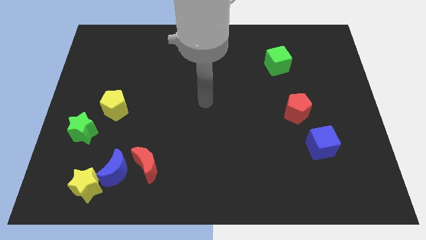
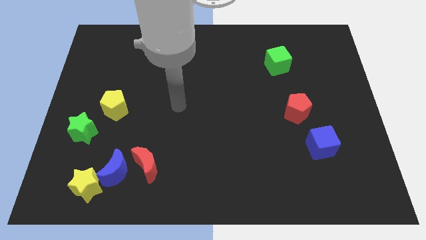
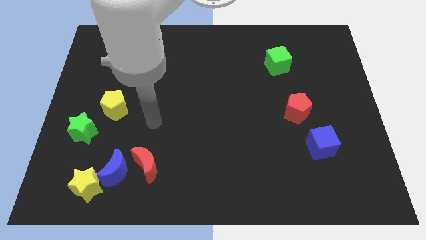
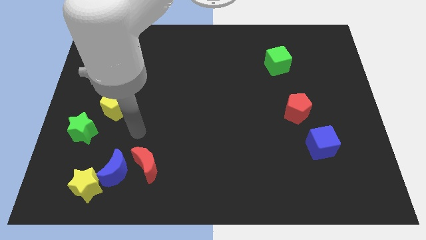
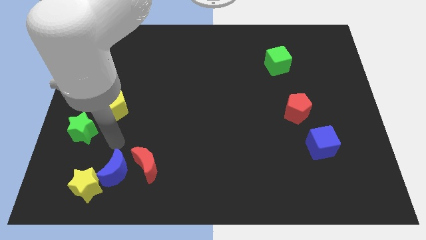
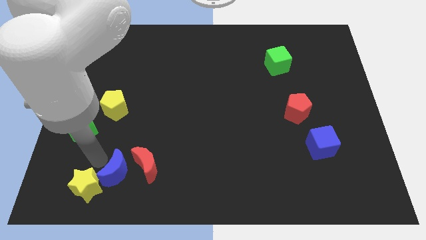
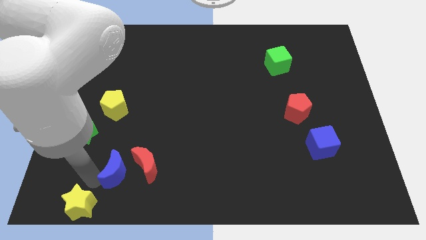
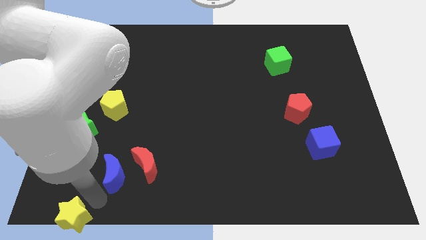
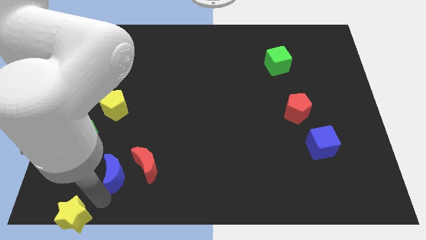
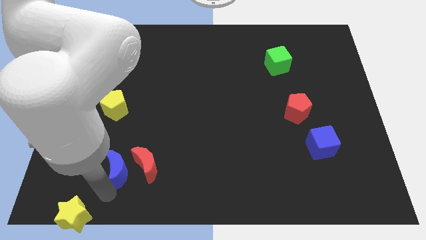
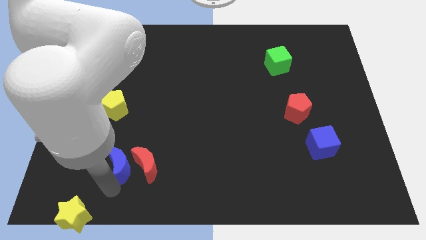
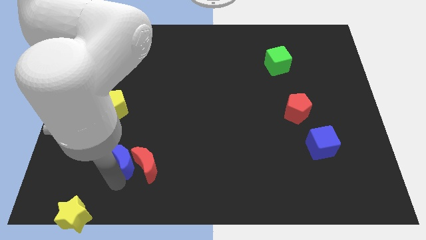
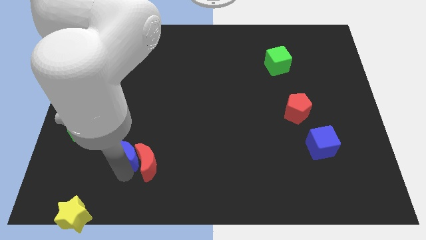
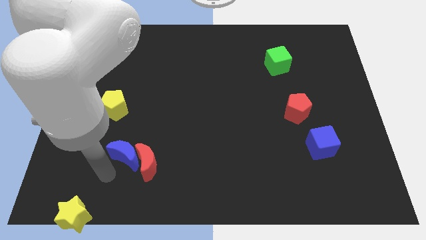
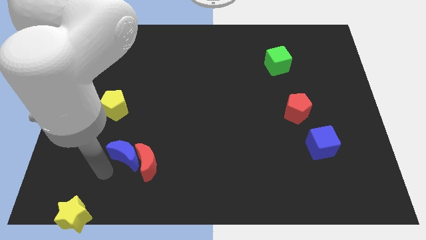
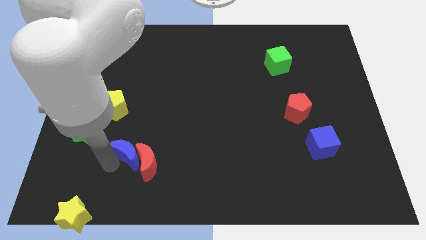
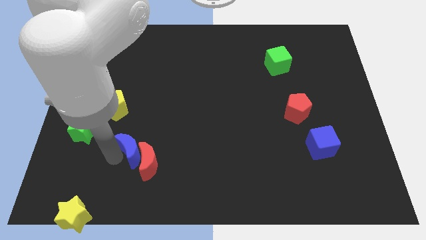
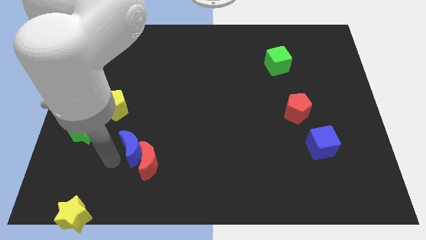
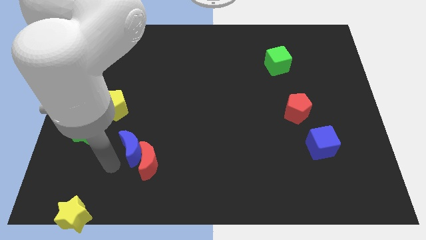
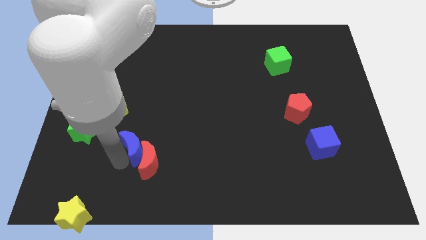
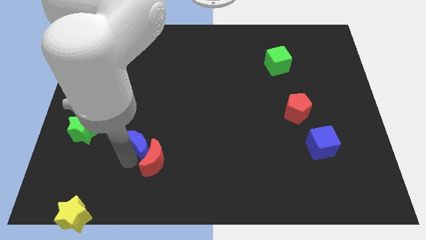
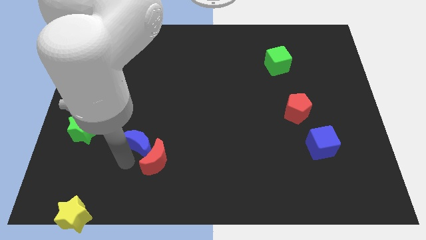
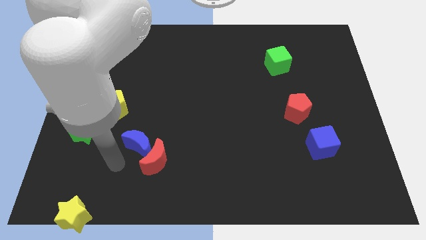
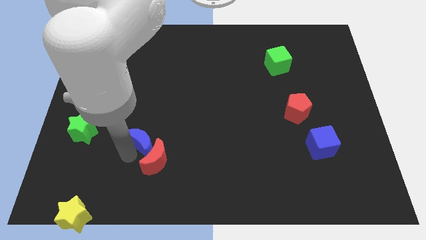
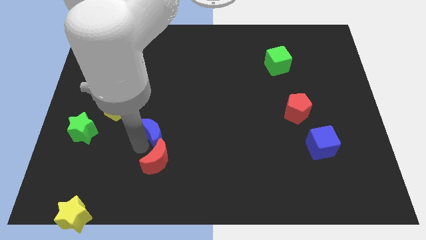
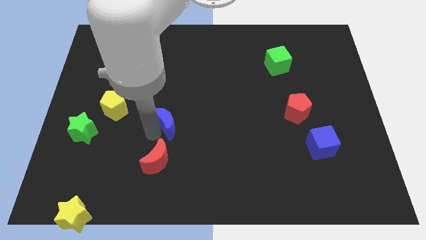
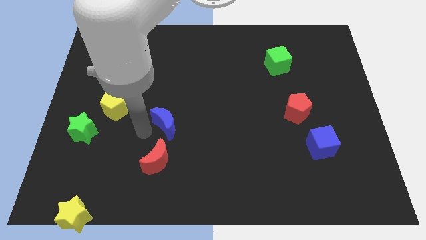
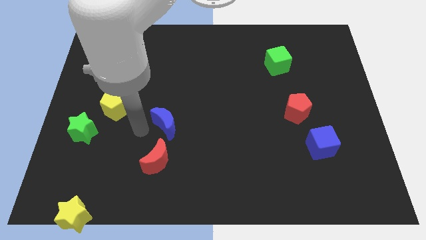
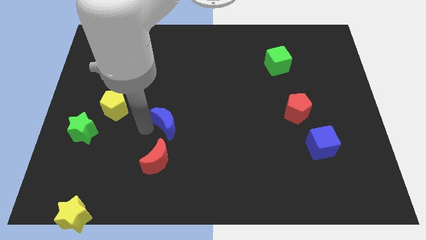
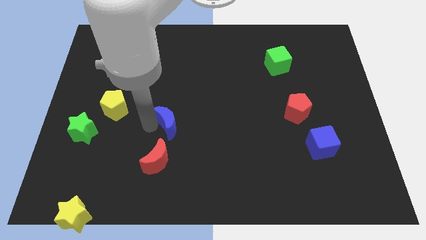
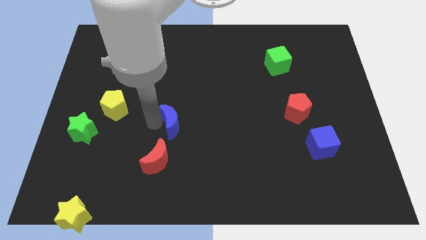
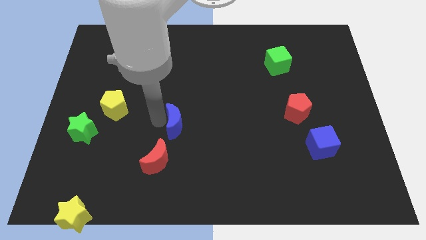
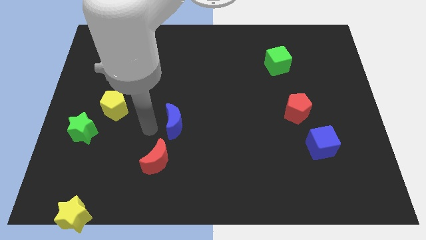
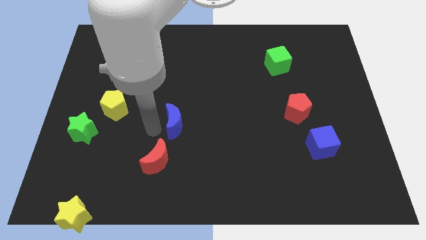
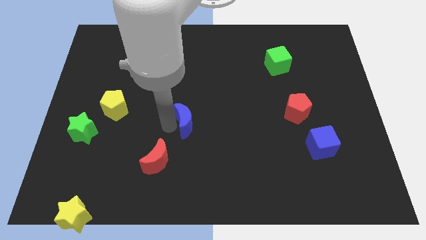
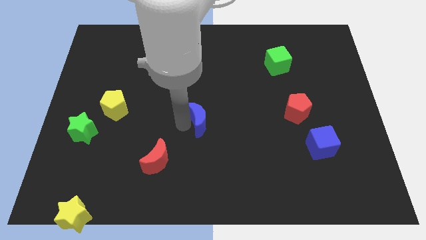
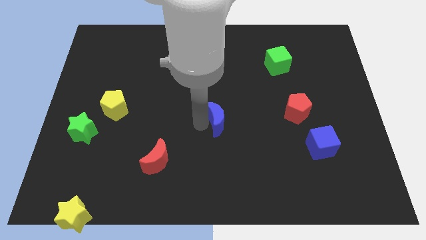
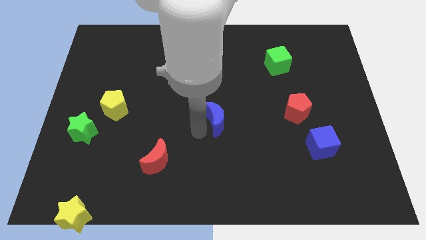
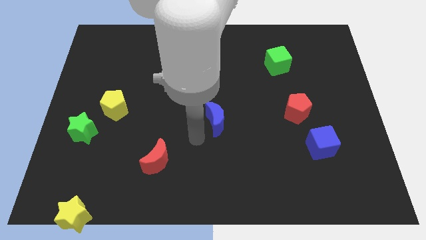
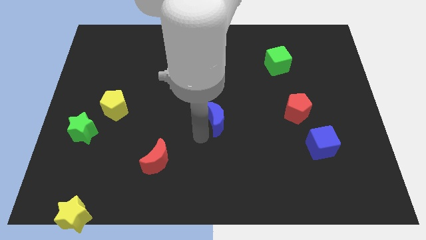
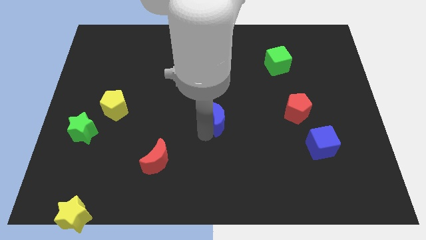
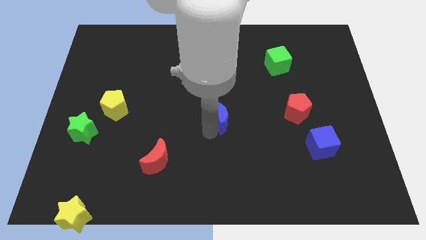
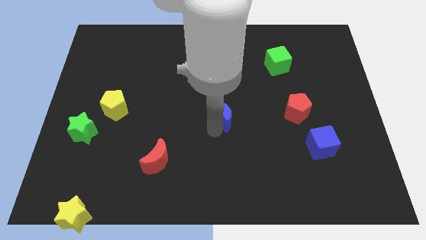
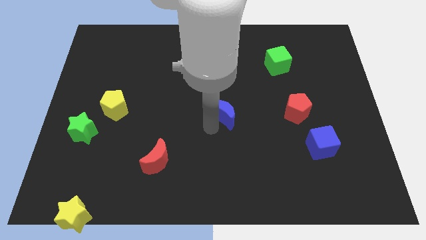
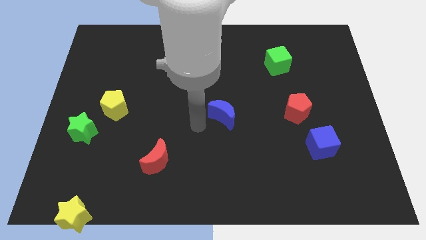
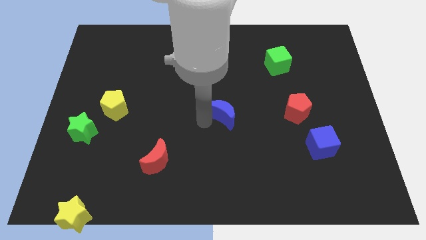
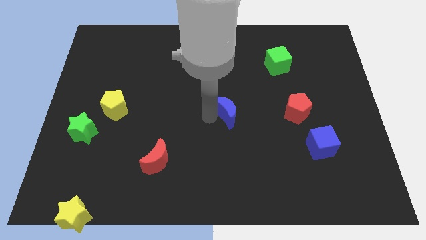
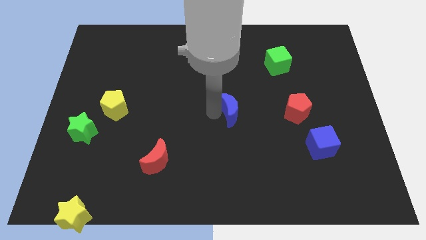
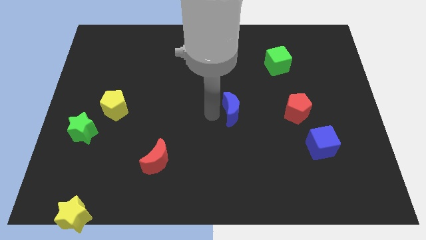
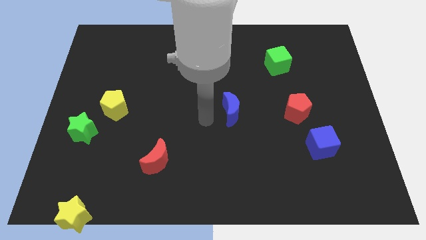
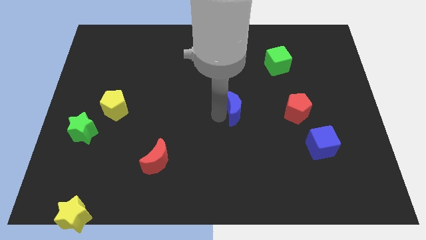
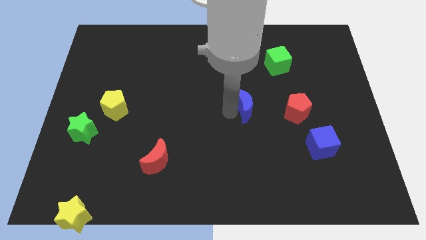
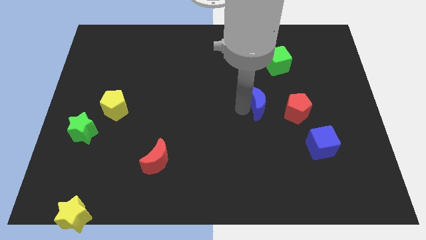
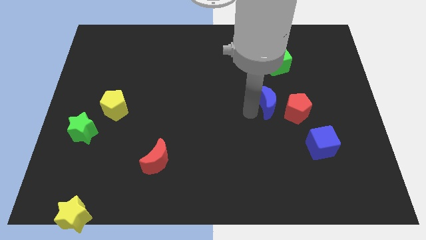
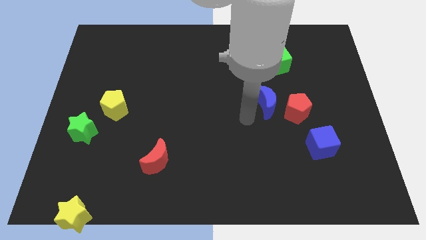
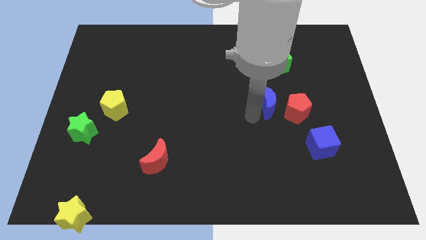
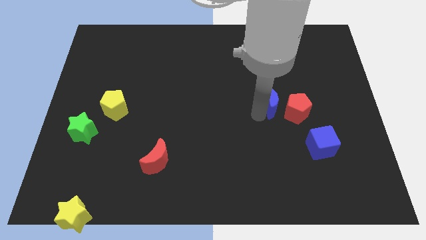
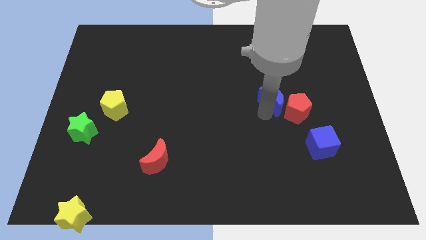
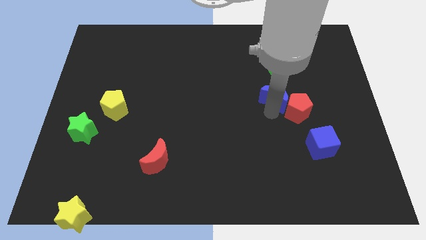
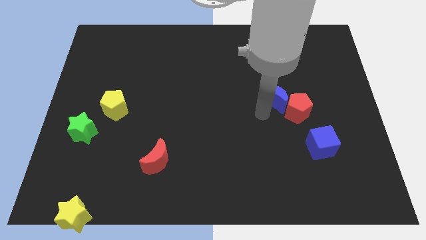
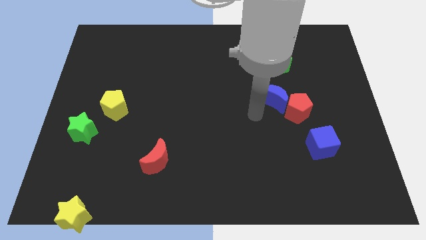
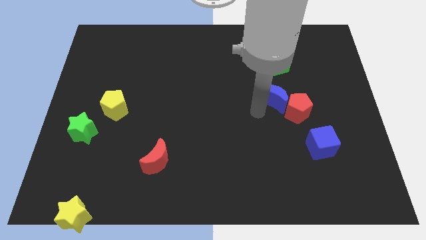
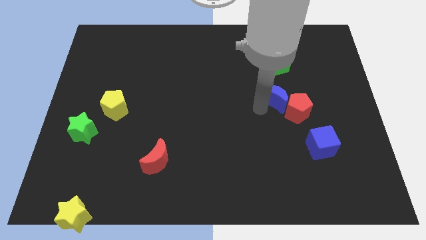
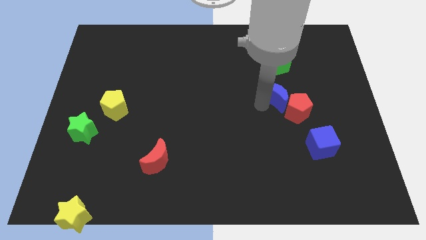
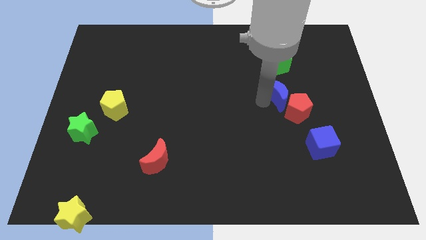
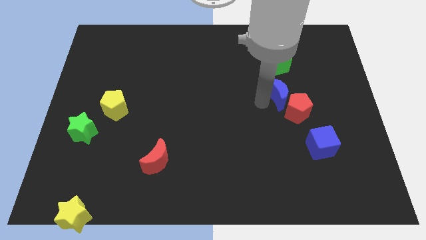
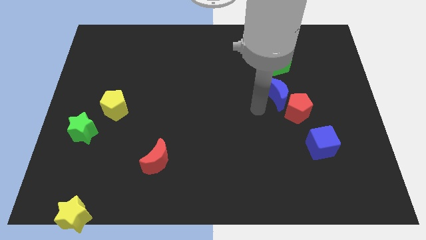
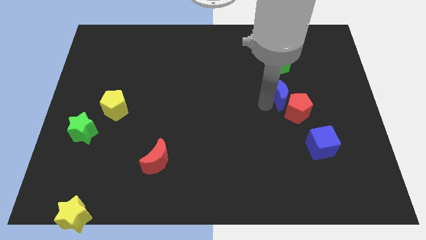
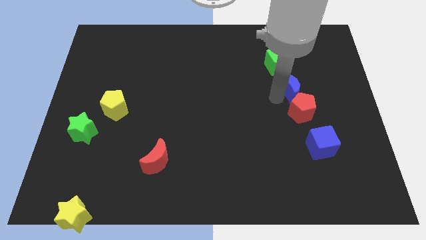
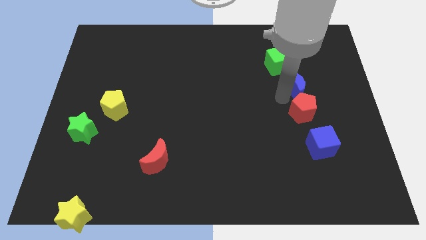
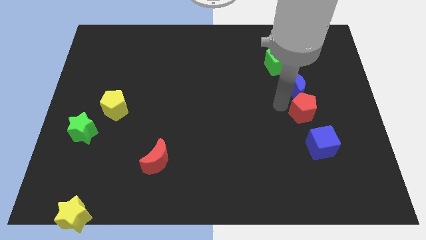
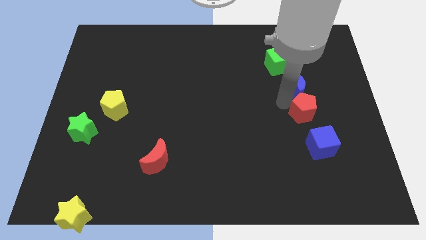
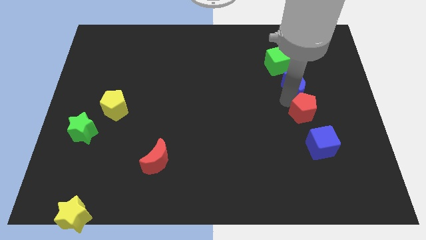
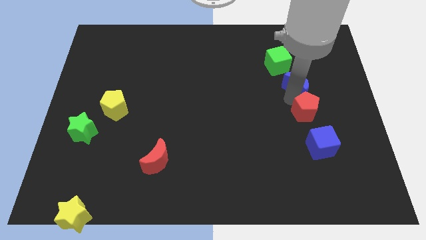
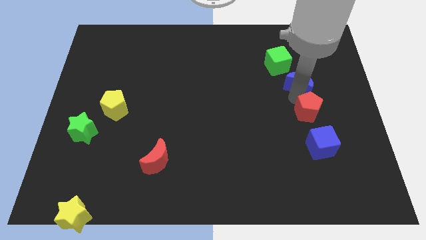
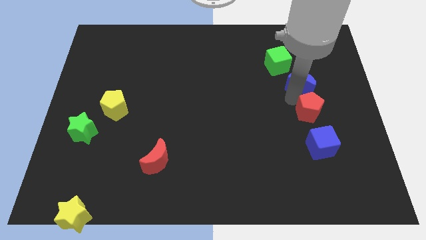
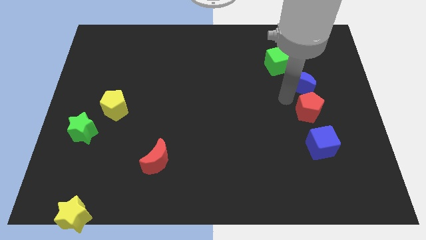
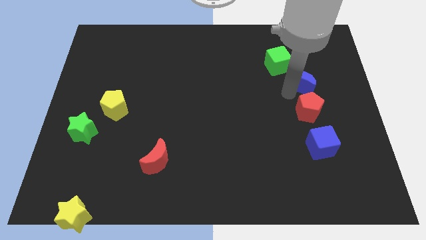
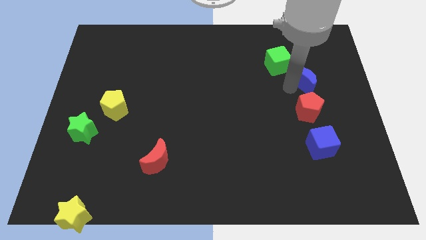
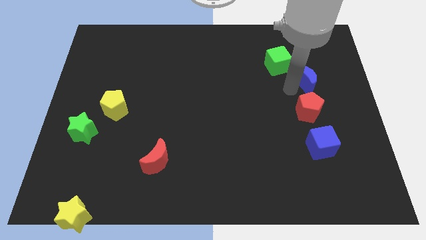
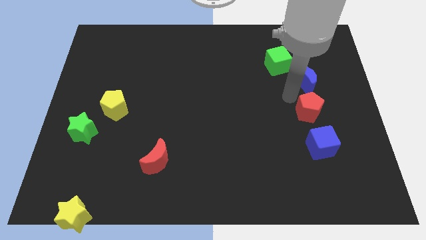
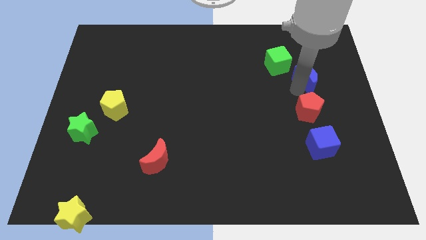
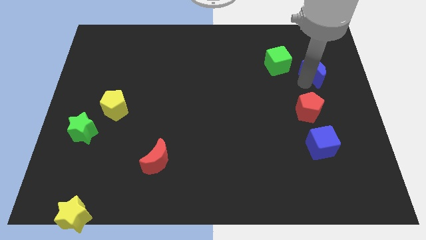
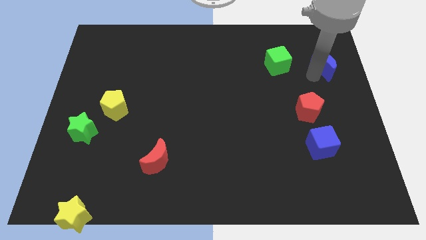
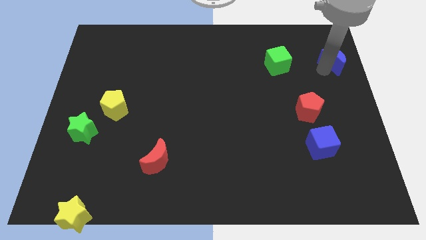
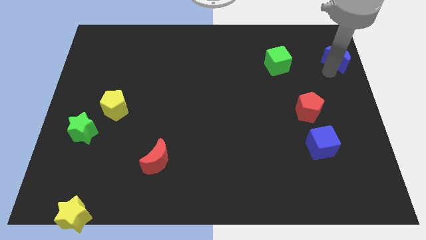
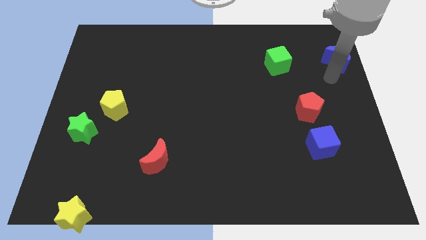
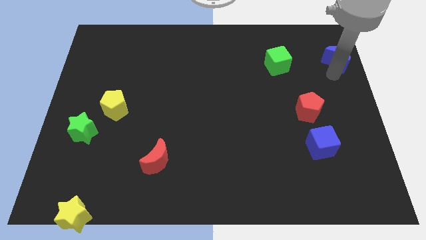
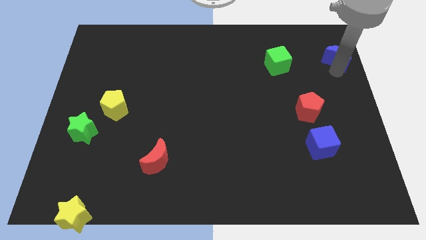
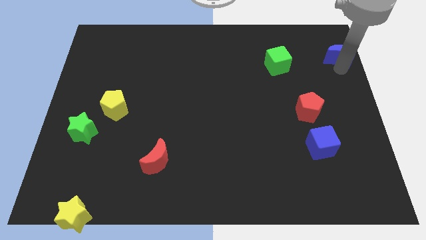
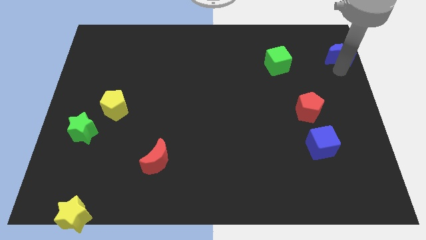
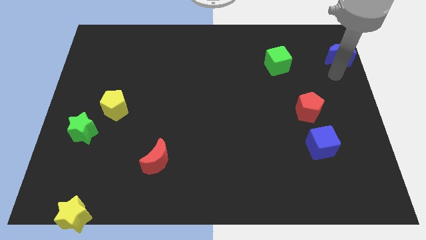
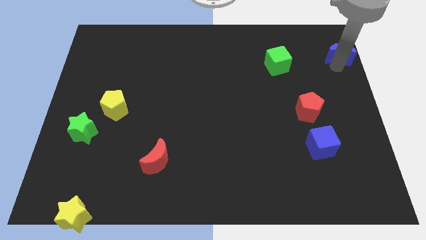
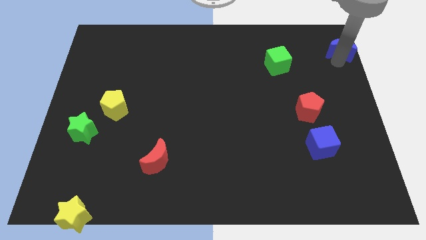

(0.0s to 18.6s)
push the blue moon to the top right of the board
